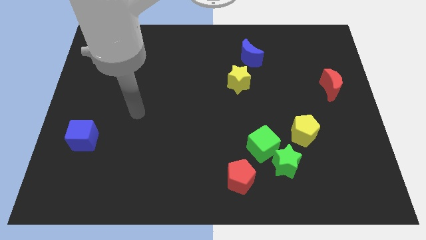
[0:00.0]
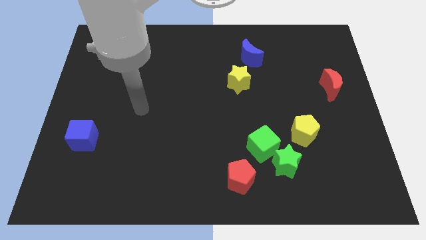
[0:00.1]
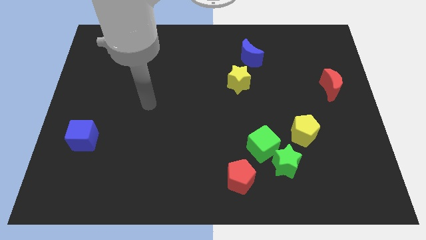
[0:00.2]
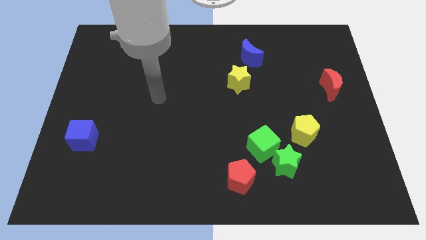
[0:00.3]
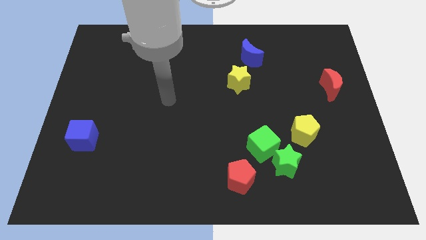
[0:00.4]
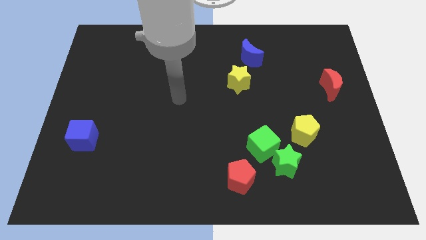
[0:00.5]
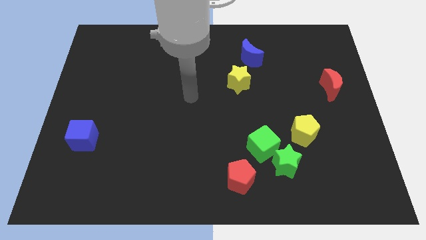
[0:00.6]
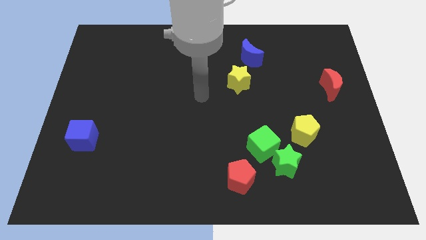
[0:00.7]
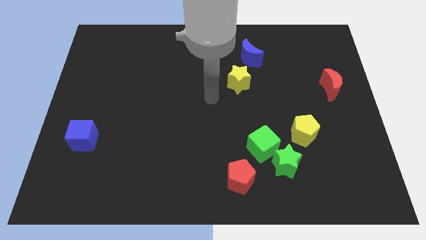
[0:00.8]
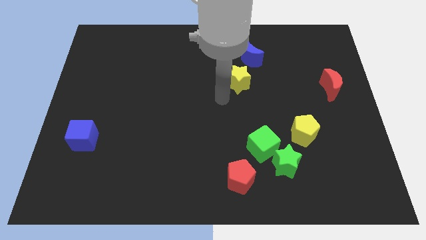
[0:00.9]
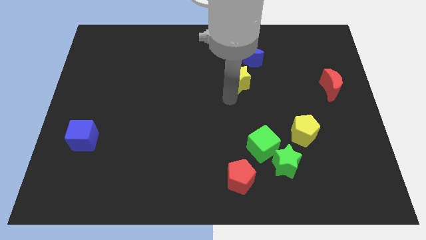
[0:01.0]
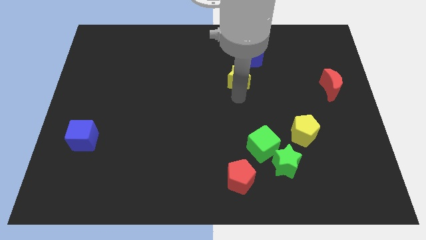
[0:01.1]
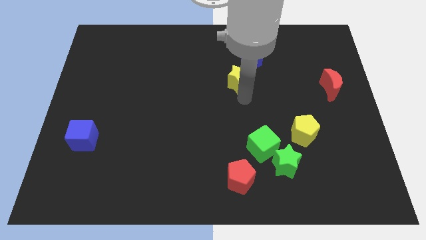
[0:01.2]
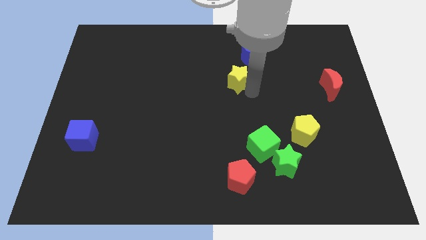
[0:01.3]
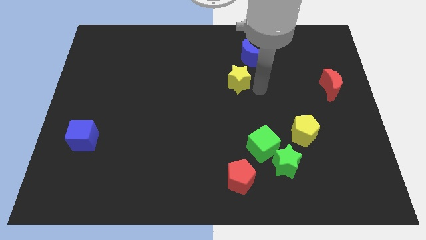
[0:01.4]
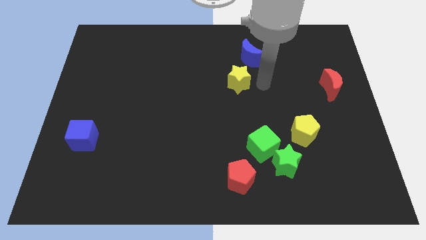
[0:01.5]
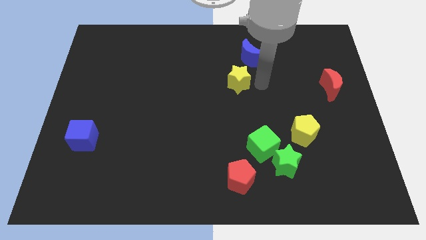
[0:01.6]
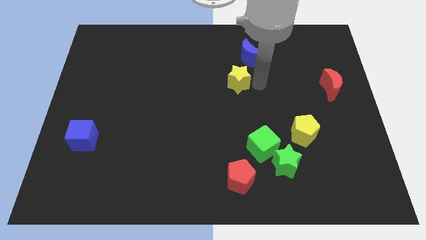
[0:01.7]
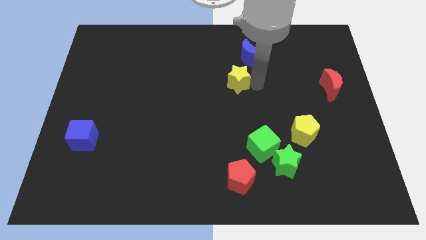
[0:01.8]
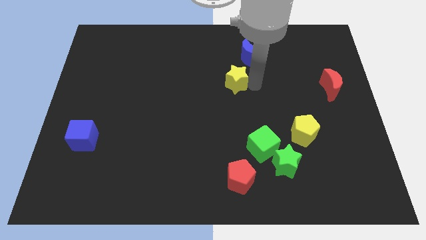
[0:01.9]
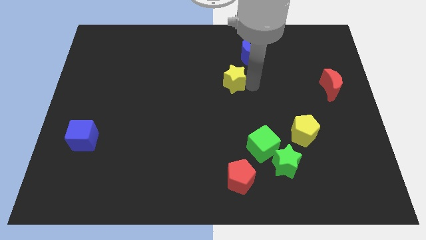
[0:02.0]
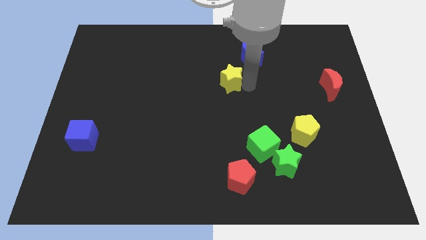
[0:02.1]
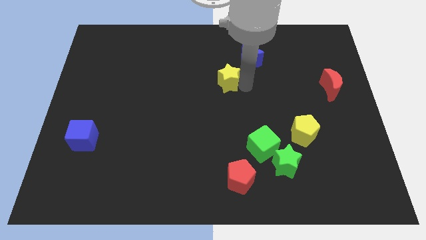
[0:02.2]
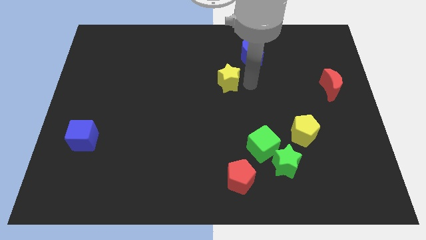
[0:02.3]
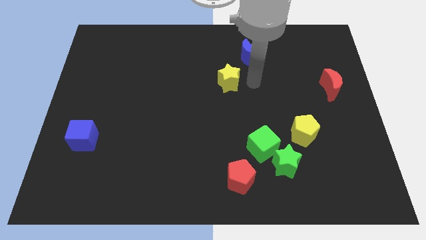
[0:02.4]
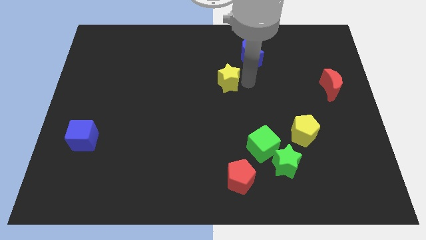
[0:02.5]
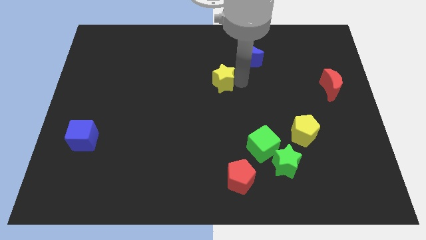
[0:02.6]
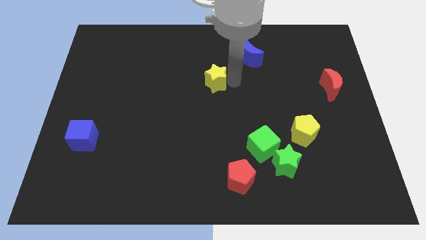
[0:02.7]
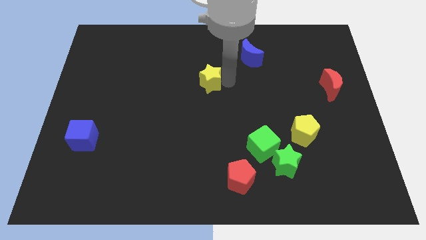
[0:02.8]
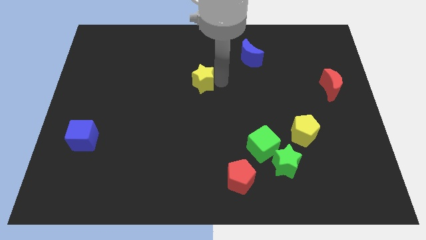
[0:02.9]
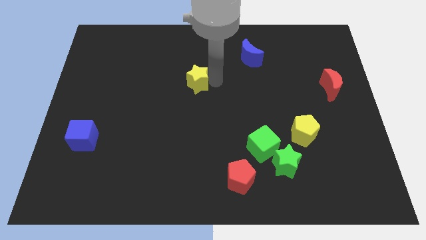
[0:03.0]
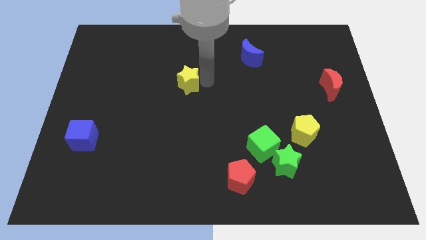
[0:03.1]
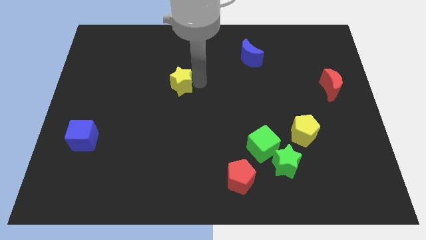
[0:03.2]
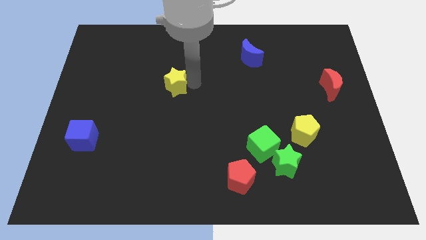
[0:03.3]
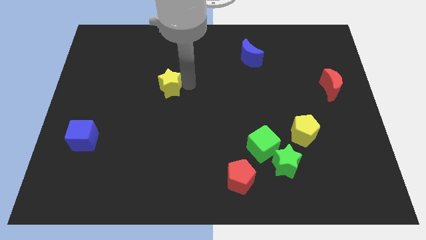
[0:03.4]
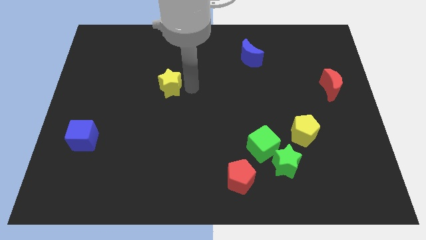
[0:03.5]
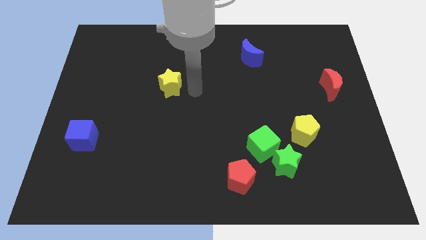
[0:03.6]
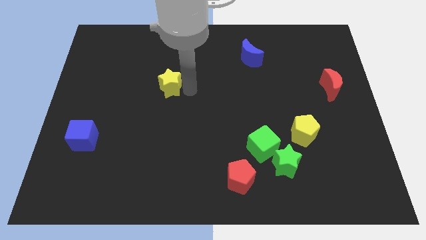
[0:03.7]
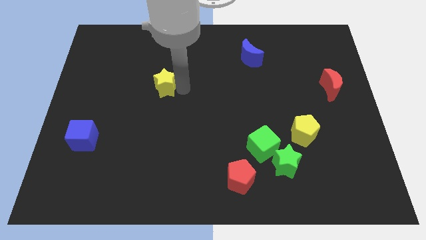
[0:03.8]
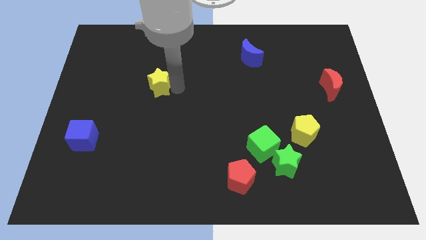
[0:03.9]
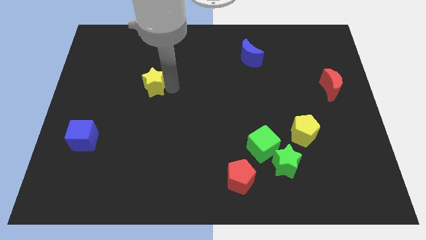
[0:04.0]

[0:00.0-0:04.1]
move the yellow star left

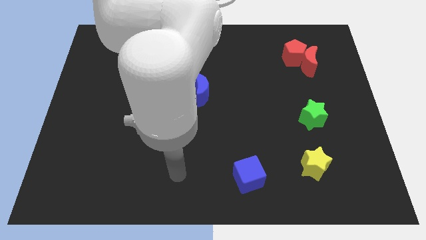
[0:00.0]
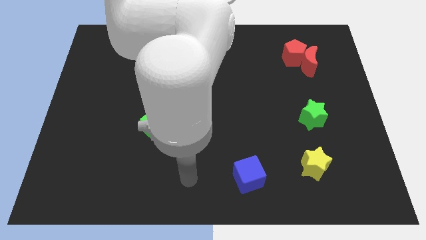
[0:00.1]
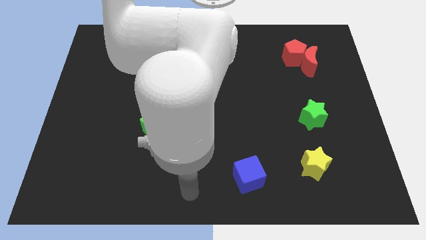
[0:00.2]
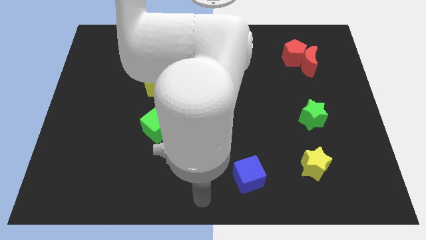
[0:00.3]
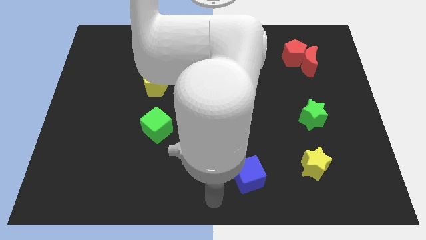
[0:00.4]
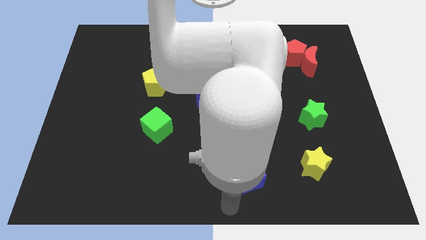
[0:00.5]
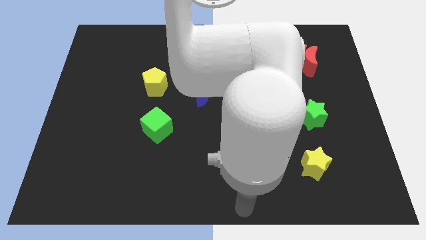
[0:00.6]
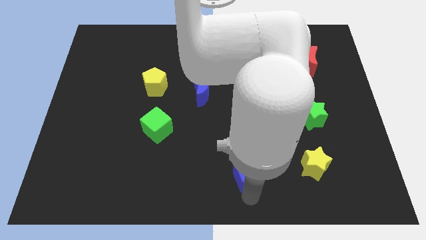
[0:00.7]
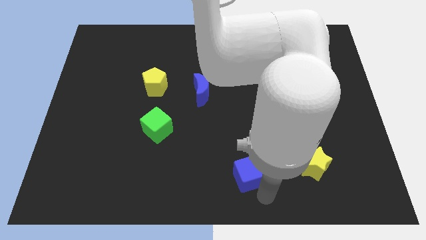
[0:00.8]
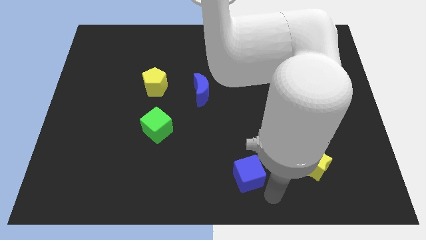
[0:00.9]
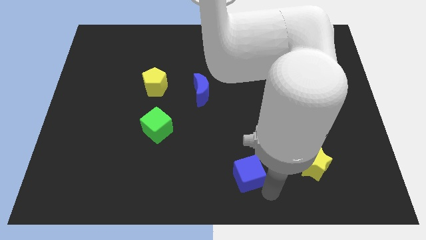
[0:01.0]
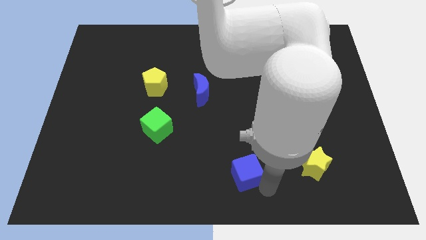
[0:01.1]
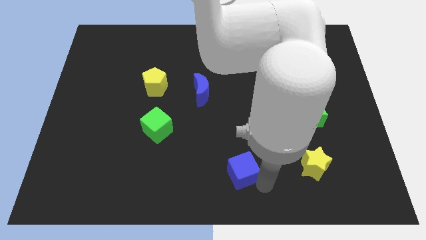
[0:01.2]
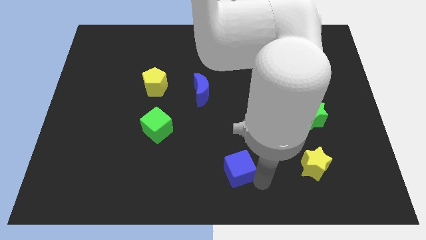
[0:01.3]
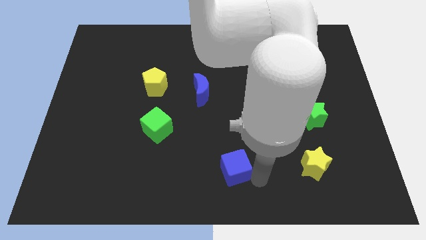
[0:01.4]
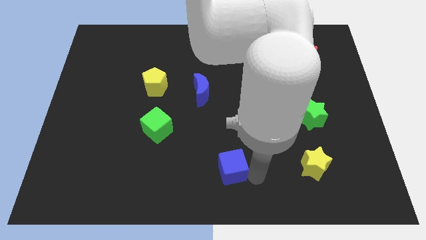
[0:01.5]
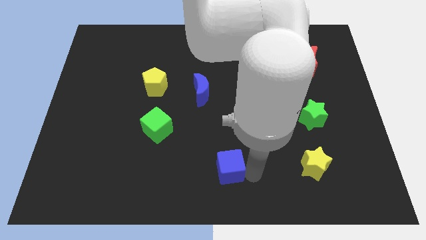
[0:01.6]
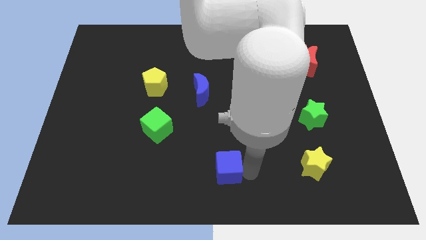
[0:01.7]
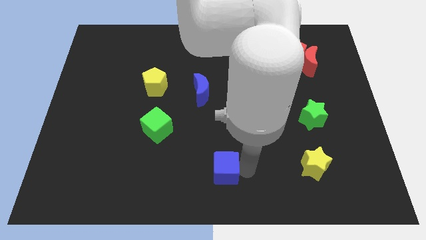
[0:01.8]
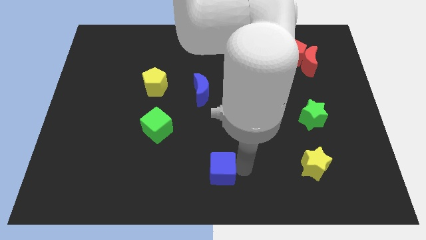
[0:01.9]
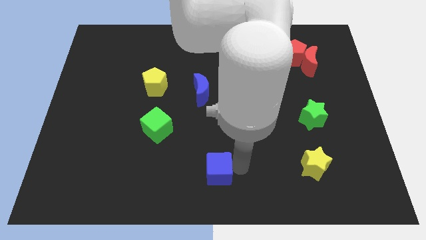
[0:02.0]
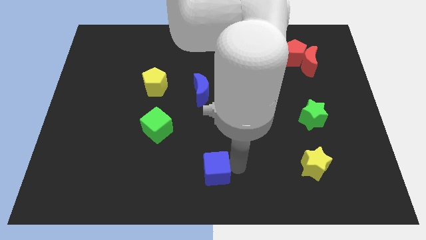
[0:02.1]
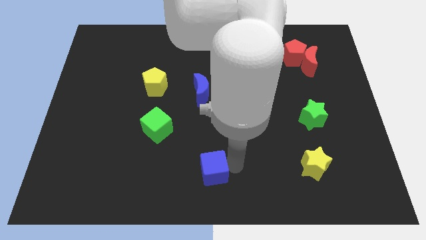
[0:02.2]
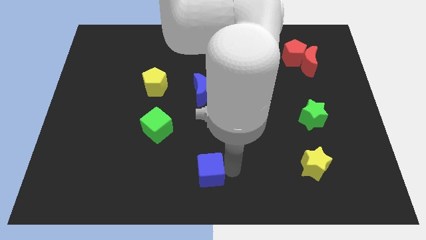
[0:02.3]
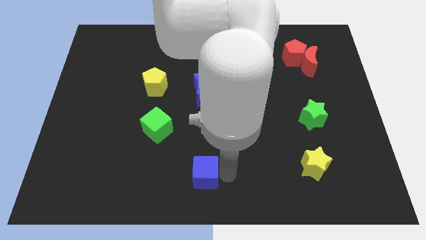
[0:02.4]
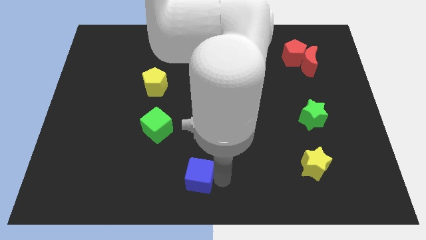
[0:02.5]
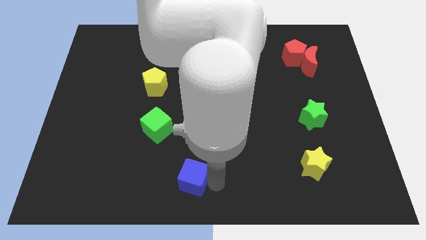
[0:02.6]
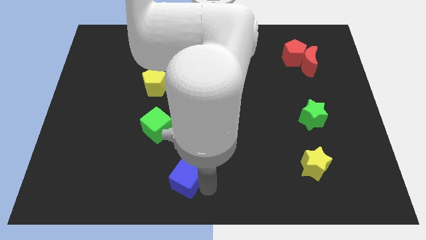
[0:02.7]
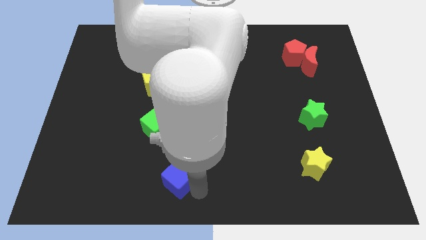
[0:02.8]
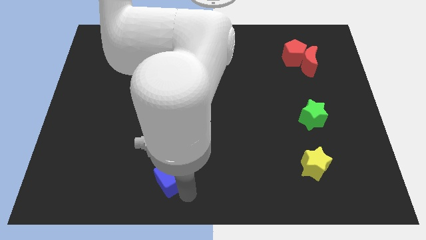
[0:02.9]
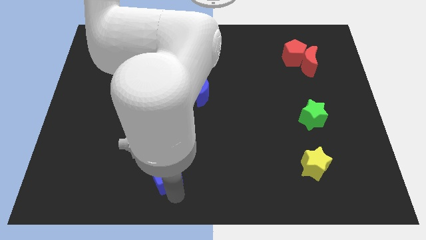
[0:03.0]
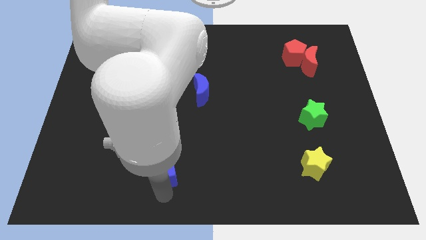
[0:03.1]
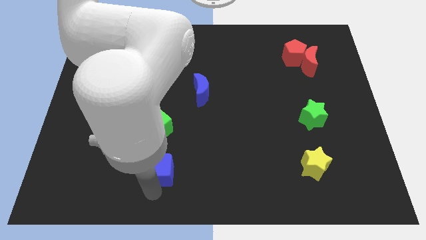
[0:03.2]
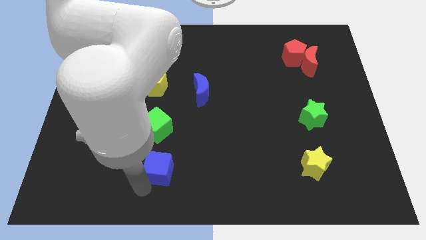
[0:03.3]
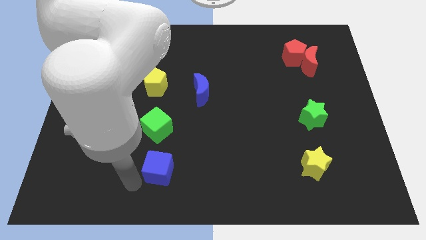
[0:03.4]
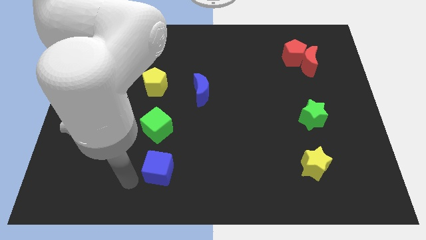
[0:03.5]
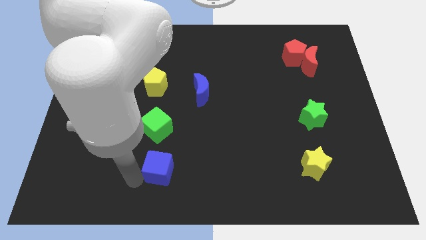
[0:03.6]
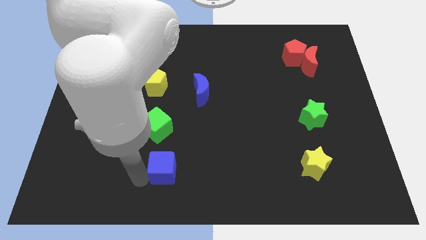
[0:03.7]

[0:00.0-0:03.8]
slide the blue cube somewhat diagonally upwards and left

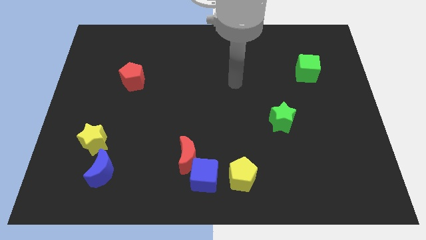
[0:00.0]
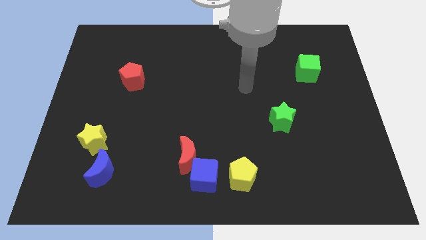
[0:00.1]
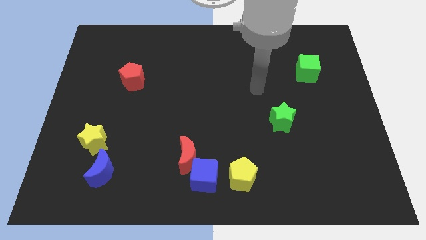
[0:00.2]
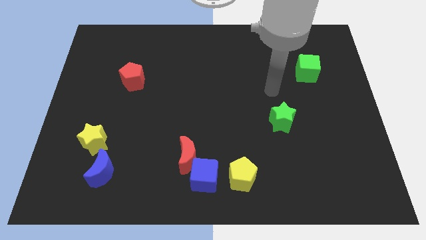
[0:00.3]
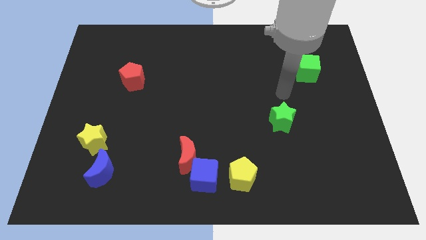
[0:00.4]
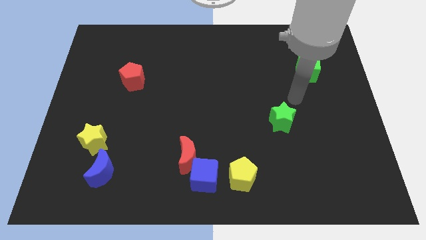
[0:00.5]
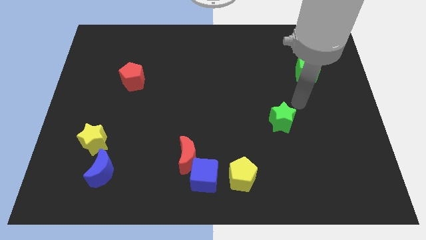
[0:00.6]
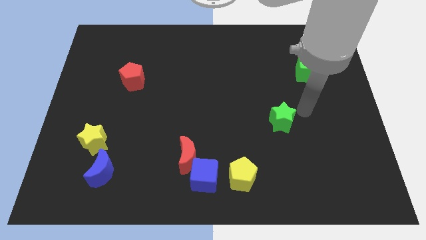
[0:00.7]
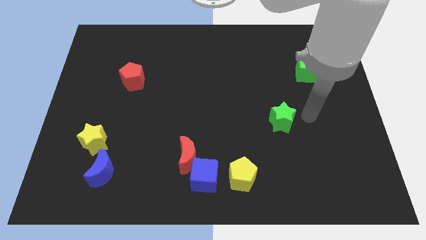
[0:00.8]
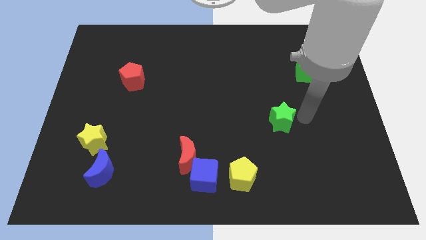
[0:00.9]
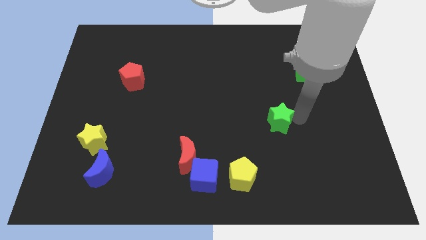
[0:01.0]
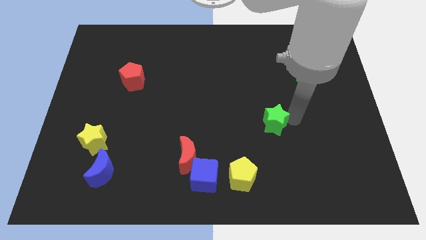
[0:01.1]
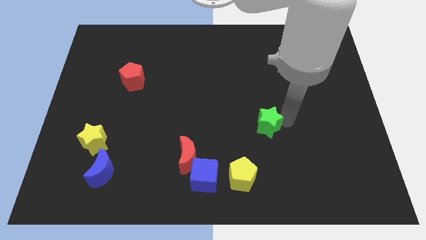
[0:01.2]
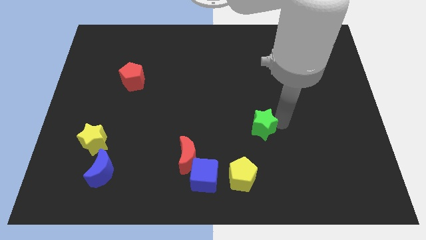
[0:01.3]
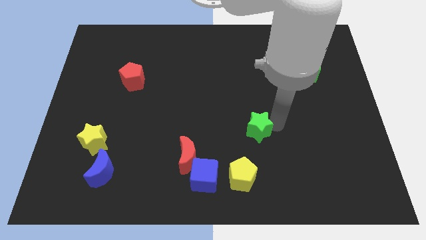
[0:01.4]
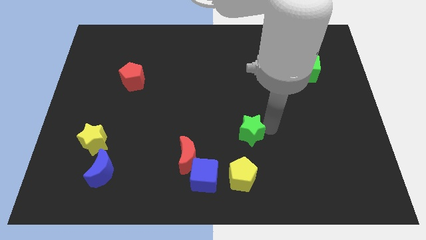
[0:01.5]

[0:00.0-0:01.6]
move the green star a little to the left
